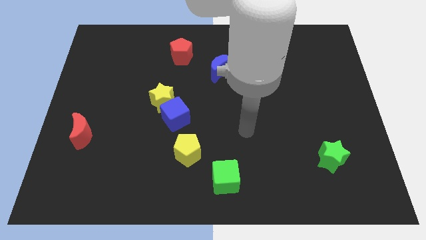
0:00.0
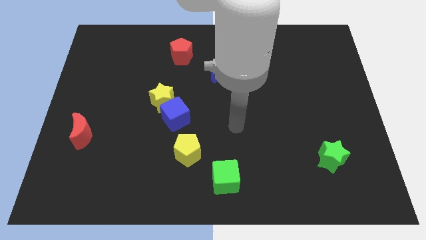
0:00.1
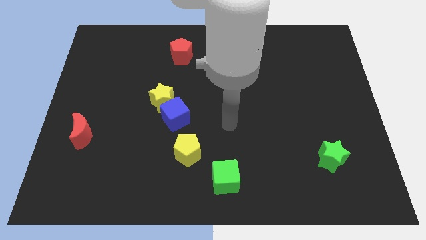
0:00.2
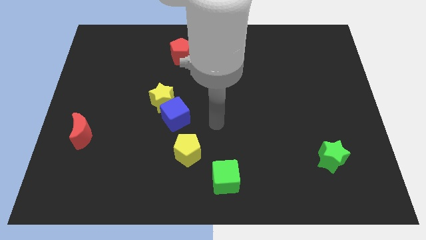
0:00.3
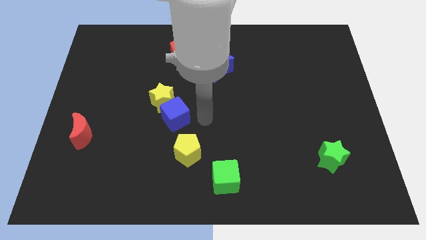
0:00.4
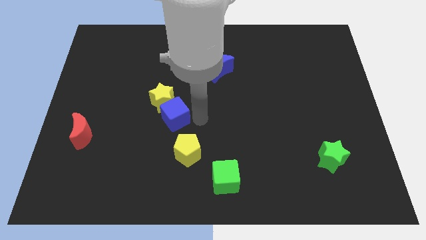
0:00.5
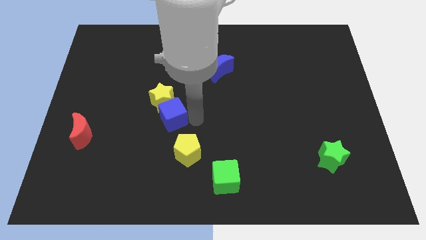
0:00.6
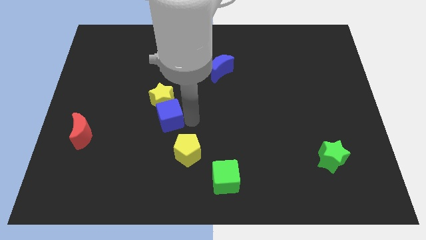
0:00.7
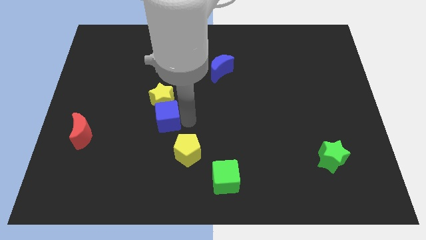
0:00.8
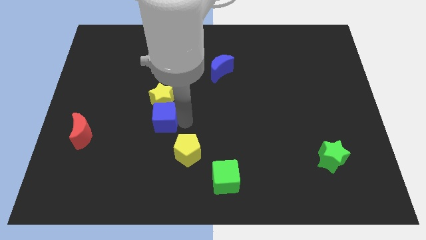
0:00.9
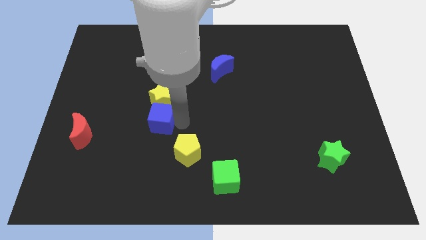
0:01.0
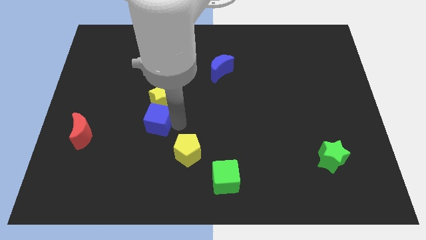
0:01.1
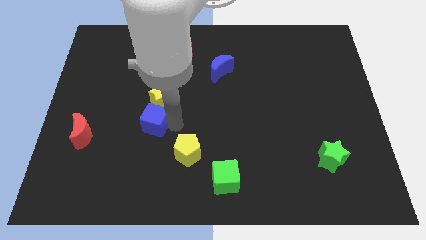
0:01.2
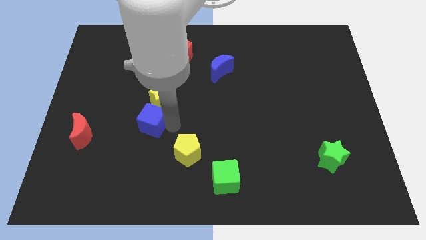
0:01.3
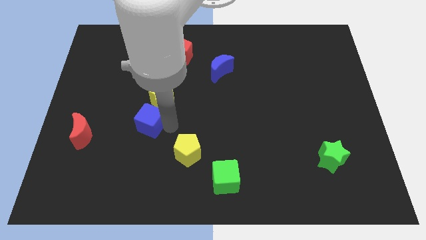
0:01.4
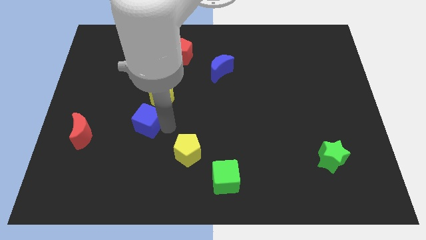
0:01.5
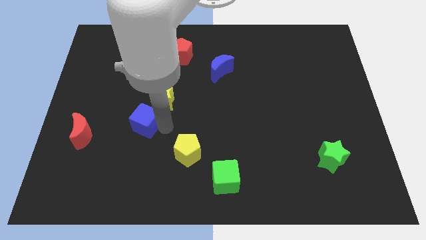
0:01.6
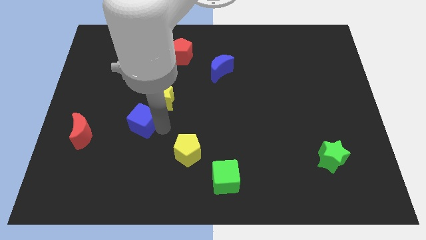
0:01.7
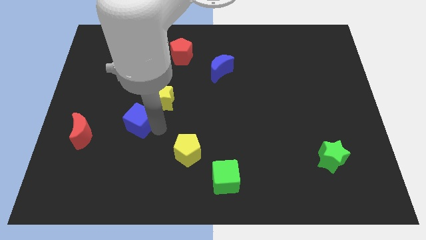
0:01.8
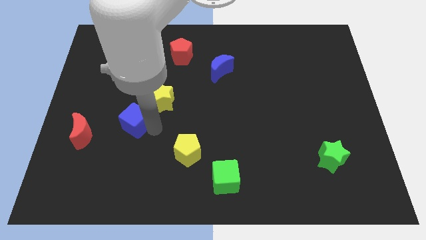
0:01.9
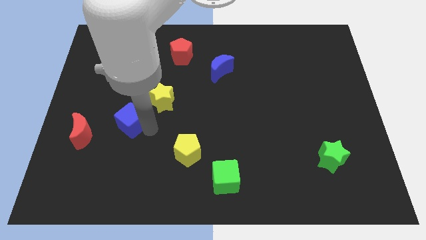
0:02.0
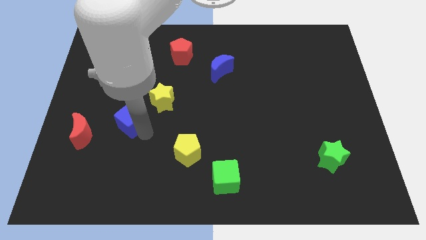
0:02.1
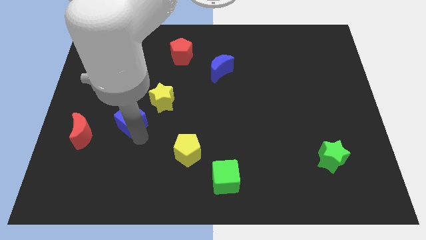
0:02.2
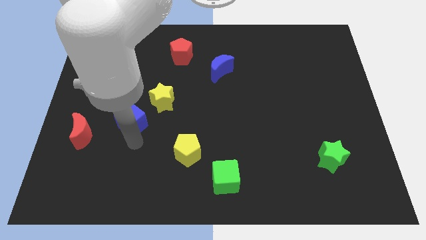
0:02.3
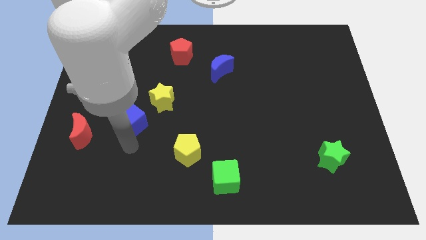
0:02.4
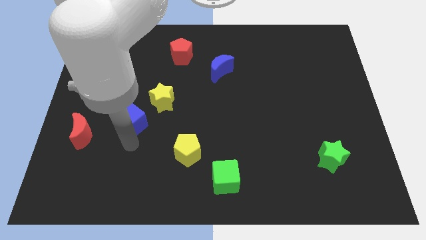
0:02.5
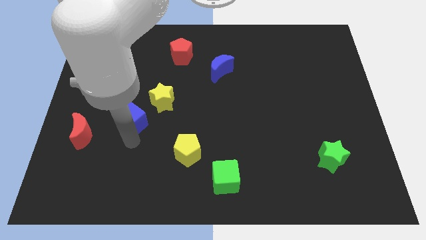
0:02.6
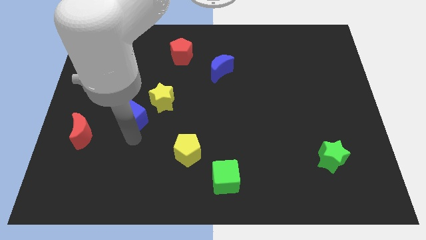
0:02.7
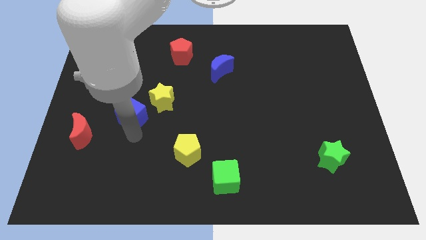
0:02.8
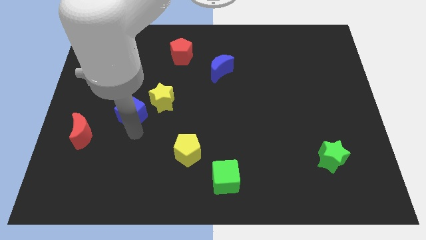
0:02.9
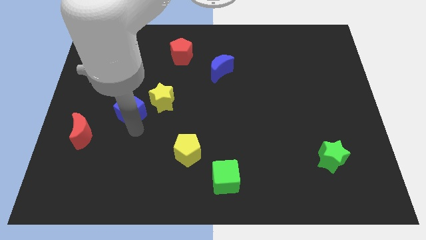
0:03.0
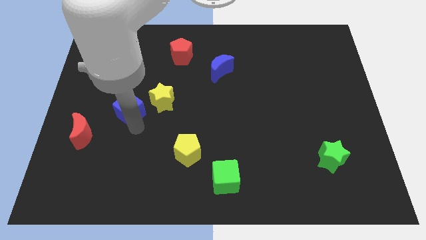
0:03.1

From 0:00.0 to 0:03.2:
slightly slide the blue cube up and then left

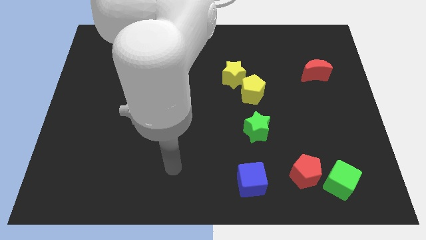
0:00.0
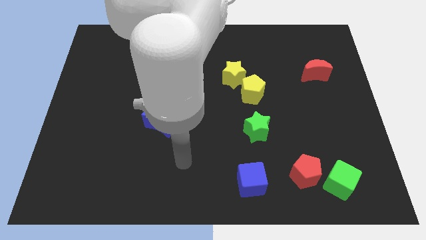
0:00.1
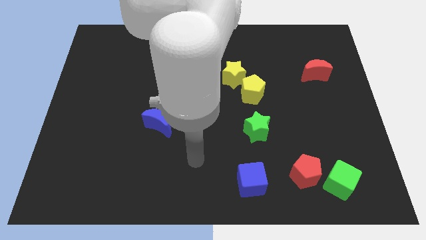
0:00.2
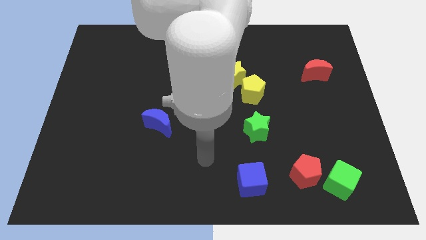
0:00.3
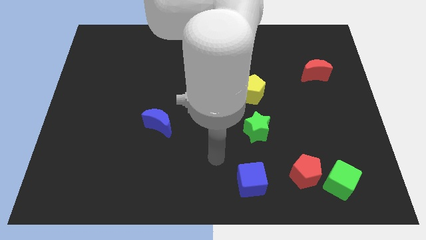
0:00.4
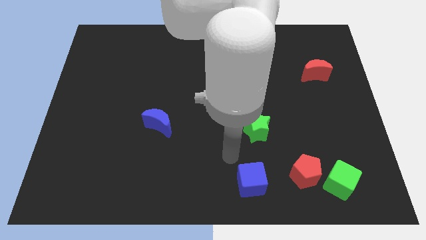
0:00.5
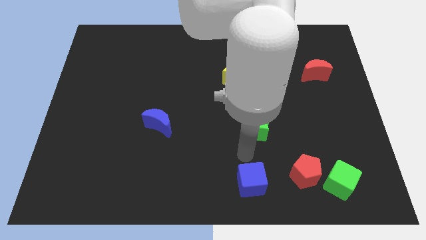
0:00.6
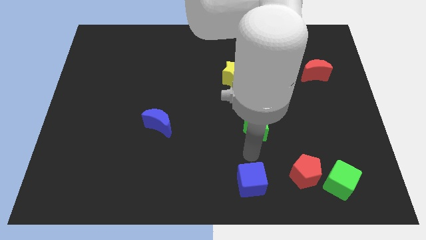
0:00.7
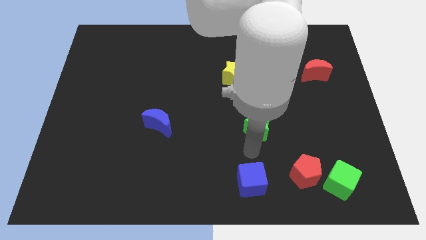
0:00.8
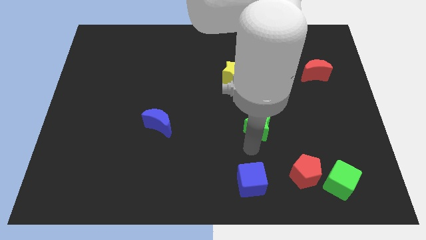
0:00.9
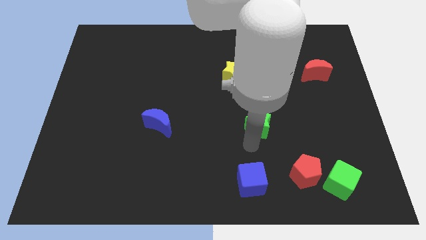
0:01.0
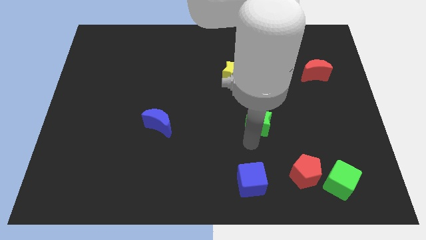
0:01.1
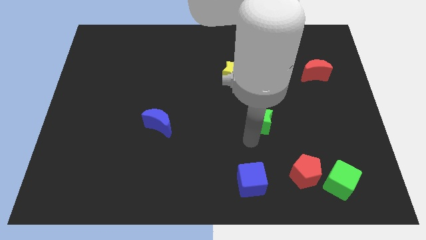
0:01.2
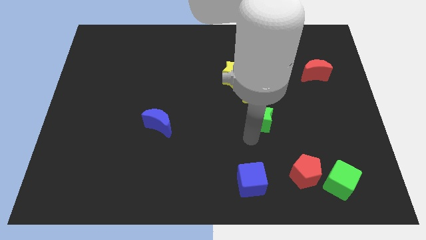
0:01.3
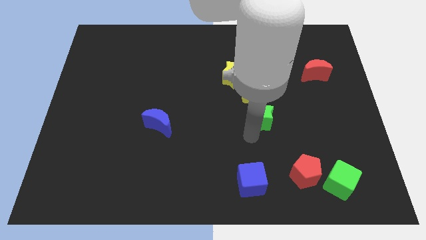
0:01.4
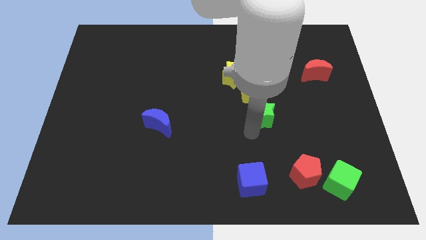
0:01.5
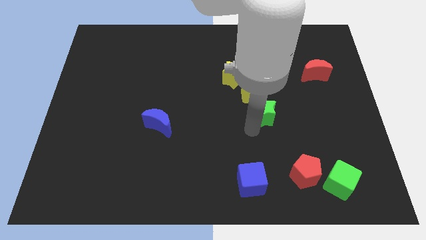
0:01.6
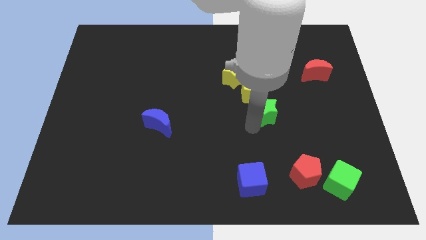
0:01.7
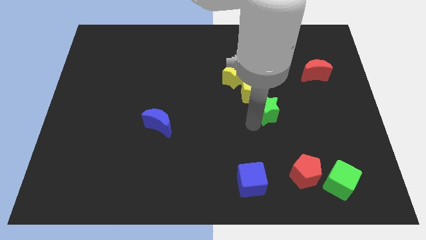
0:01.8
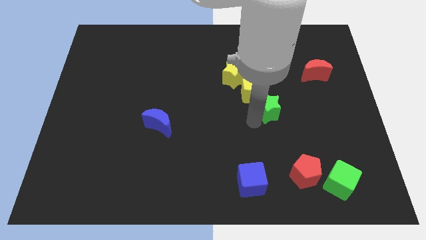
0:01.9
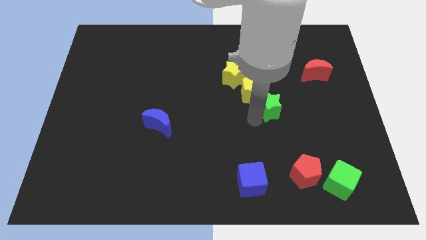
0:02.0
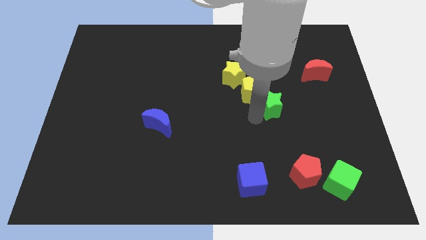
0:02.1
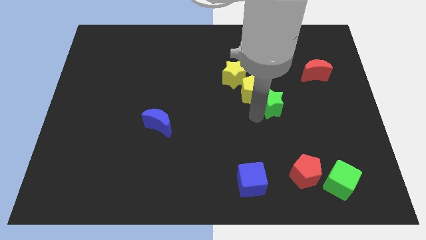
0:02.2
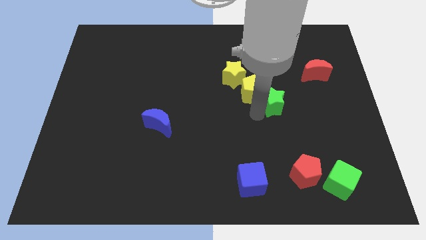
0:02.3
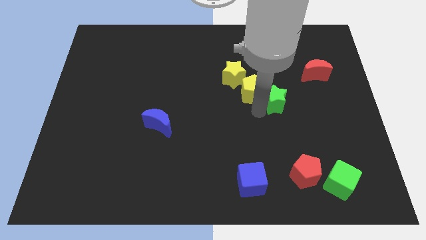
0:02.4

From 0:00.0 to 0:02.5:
push the green star a bit up

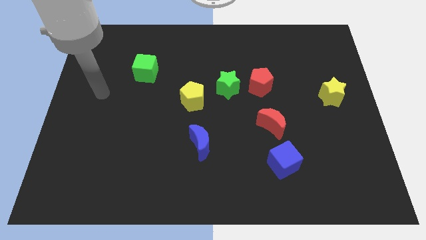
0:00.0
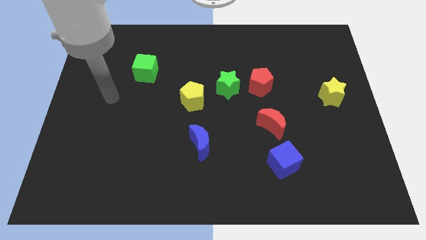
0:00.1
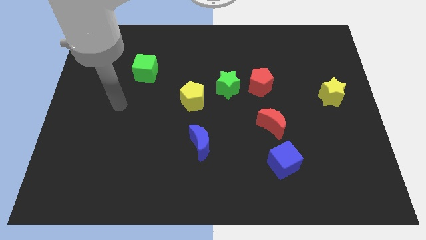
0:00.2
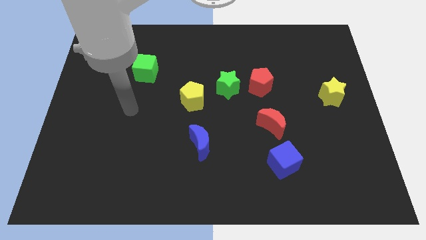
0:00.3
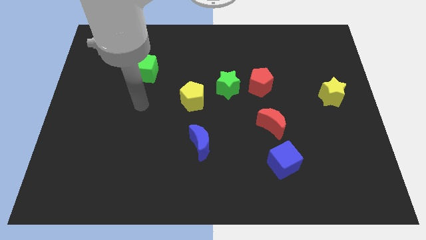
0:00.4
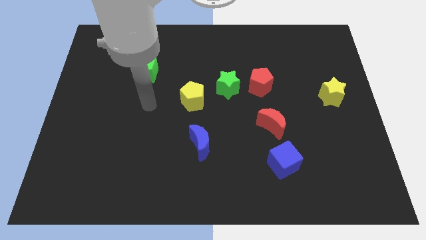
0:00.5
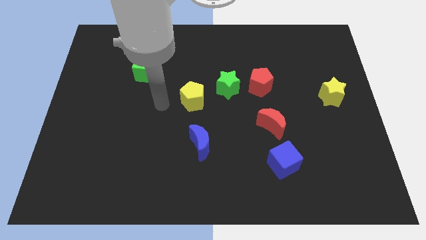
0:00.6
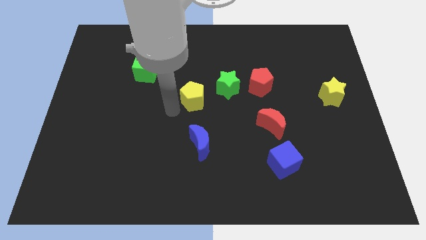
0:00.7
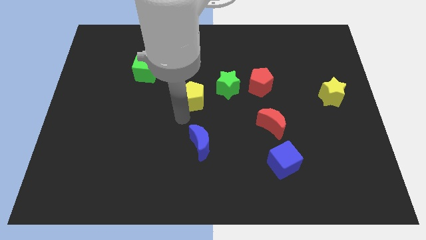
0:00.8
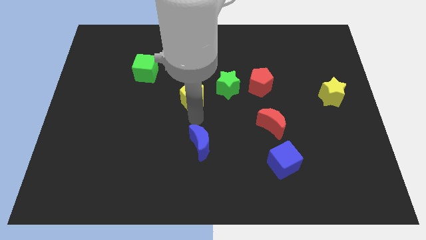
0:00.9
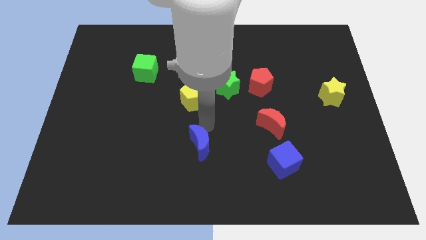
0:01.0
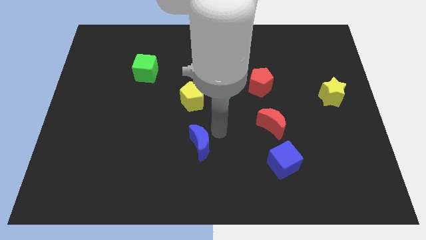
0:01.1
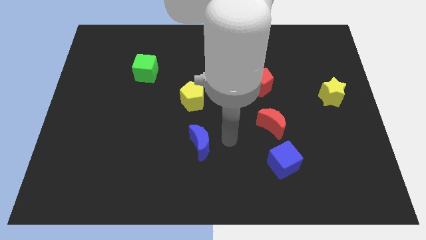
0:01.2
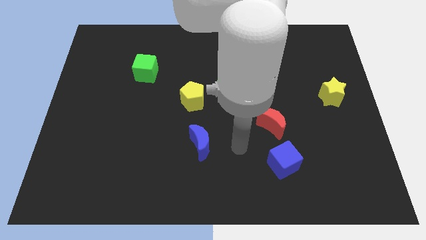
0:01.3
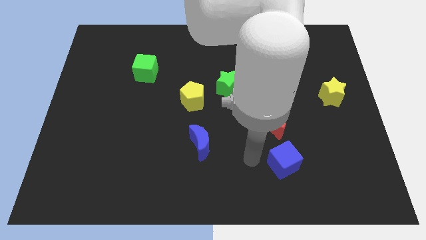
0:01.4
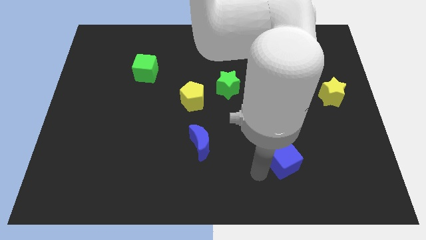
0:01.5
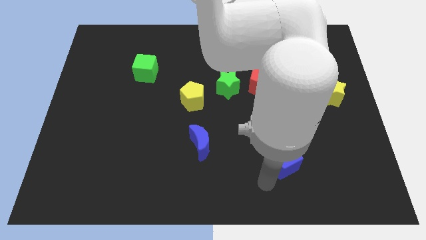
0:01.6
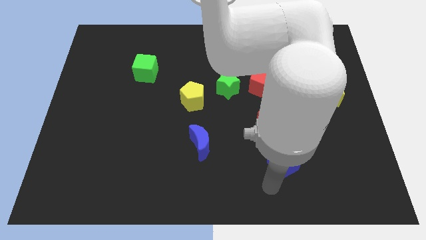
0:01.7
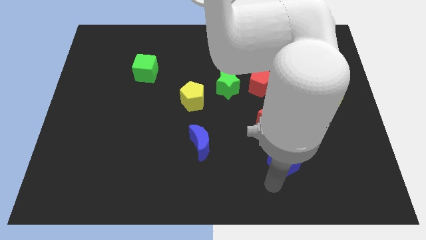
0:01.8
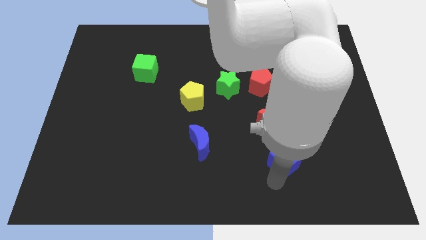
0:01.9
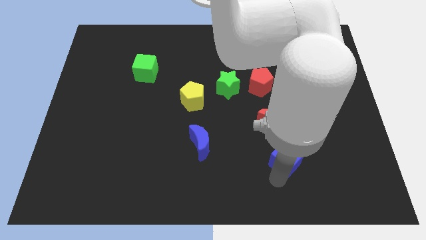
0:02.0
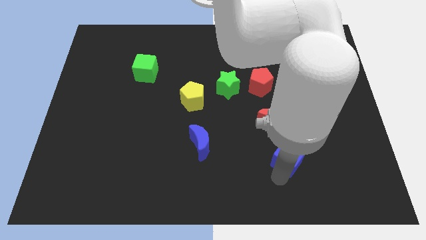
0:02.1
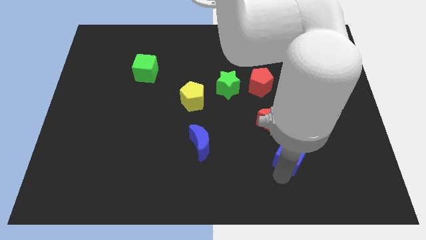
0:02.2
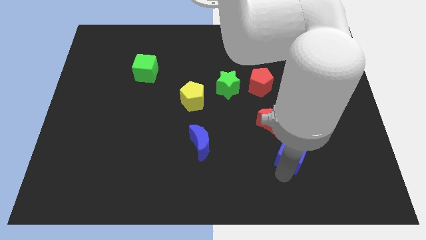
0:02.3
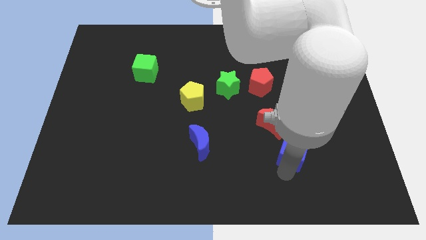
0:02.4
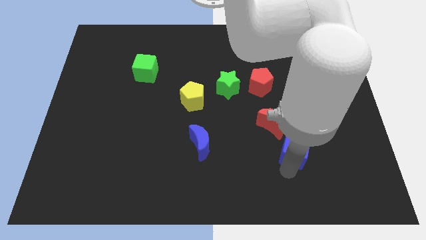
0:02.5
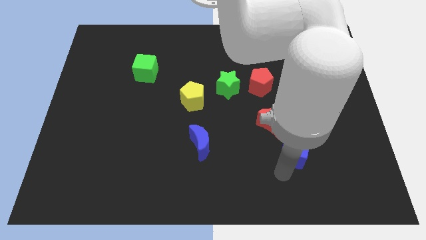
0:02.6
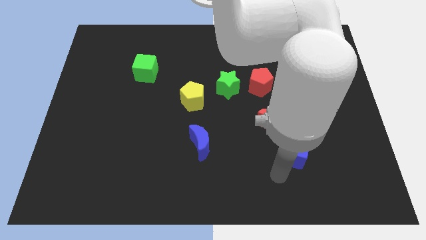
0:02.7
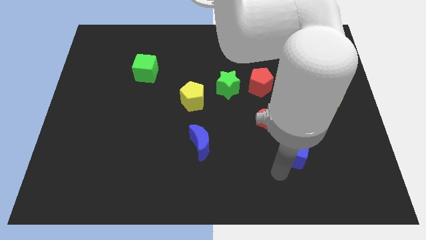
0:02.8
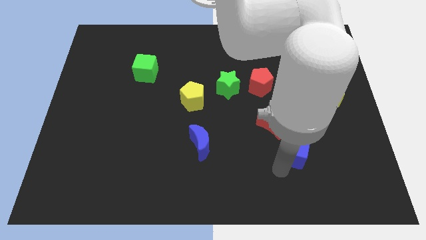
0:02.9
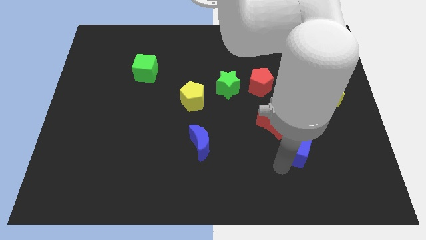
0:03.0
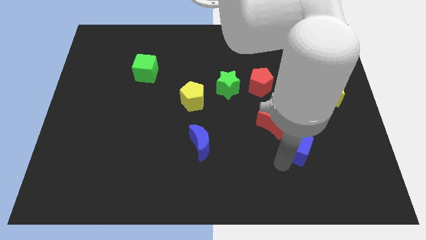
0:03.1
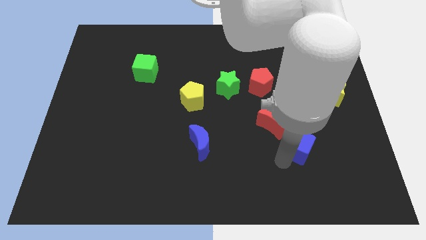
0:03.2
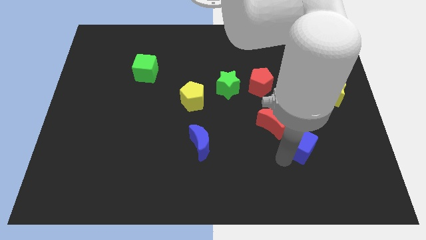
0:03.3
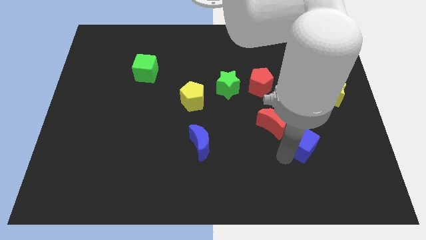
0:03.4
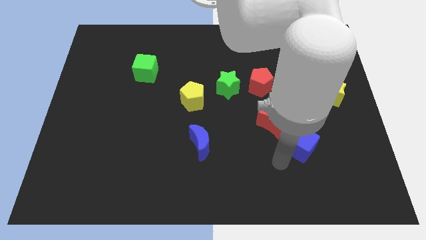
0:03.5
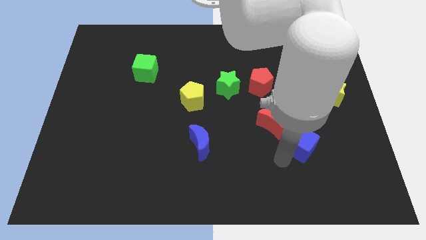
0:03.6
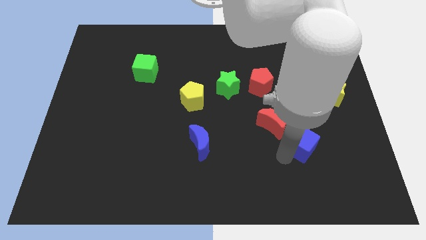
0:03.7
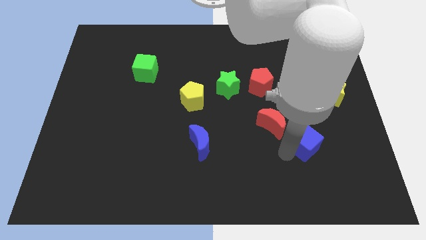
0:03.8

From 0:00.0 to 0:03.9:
slightly move the blue cube up and to the right
